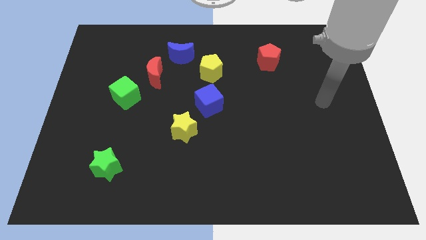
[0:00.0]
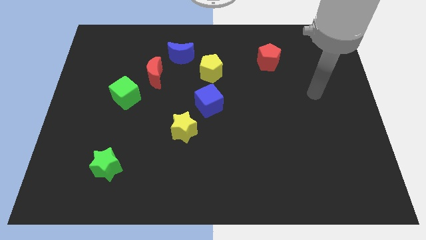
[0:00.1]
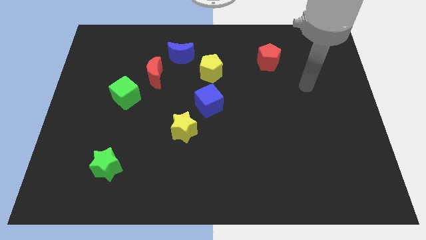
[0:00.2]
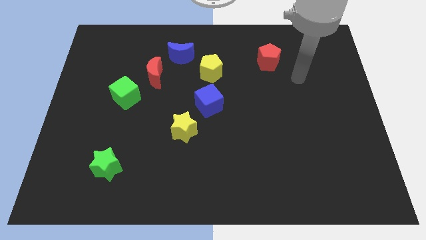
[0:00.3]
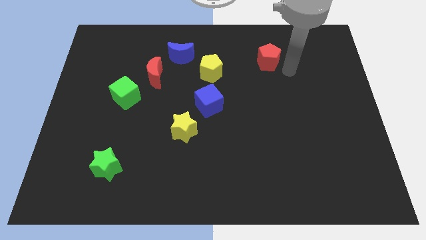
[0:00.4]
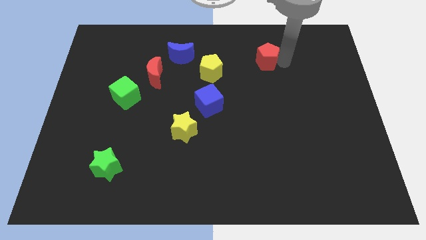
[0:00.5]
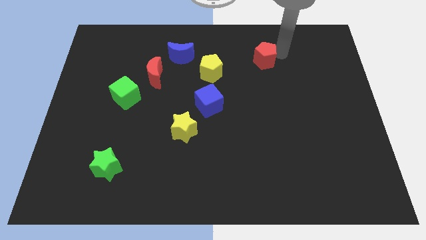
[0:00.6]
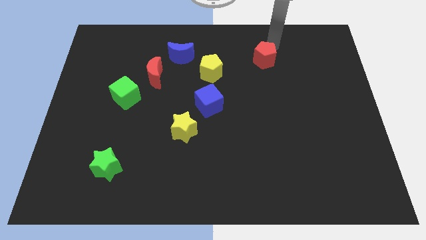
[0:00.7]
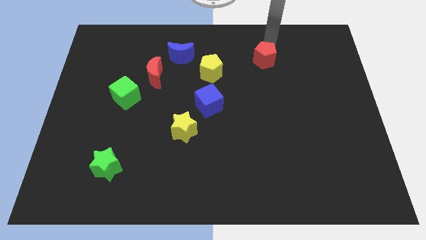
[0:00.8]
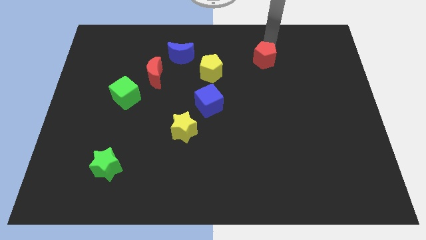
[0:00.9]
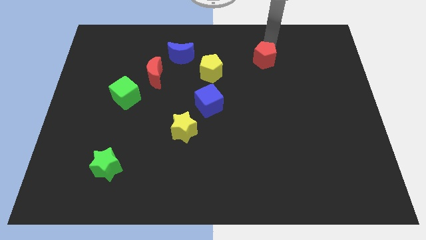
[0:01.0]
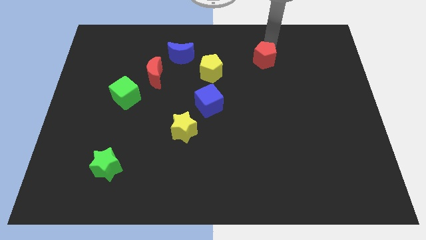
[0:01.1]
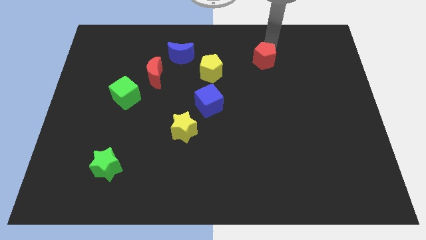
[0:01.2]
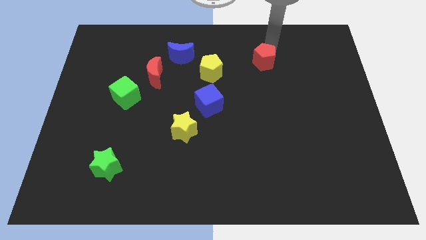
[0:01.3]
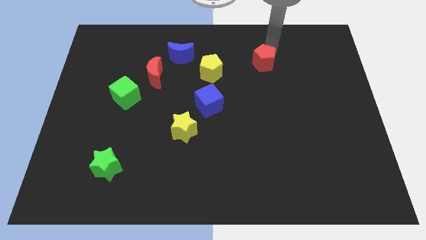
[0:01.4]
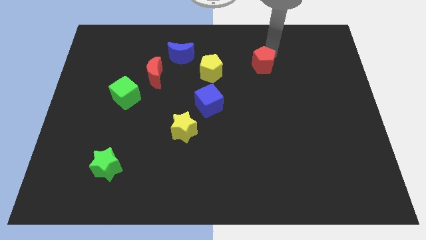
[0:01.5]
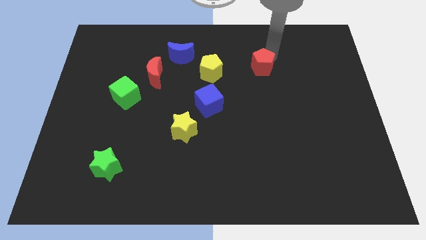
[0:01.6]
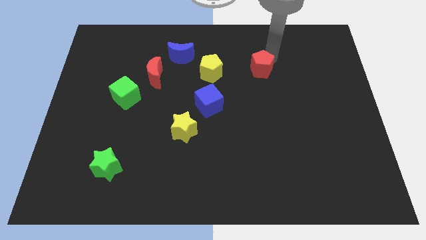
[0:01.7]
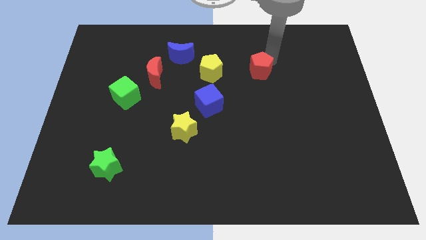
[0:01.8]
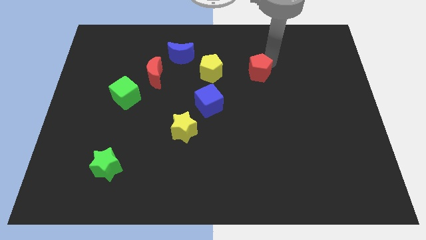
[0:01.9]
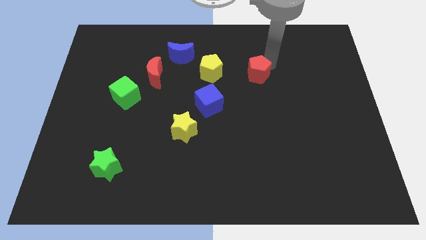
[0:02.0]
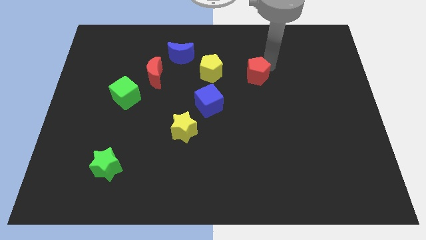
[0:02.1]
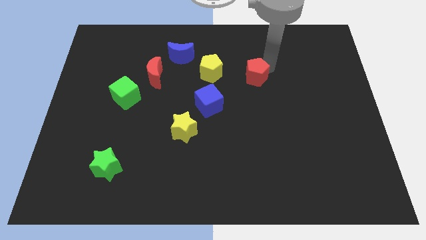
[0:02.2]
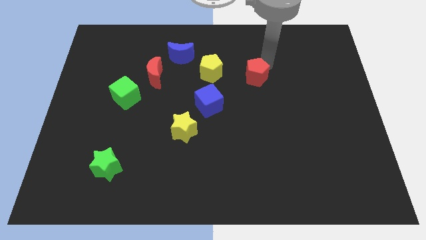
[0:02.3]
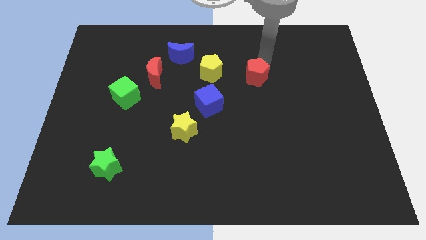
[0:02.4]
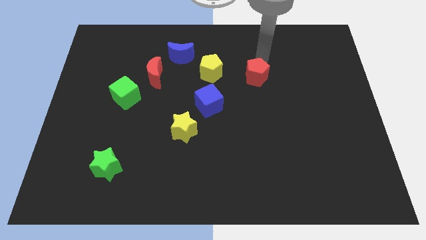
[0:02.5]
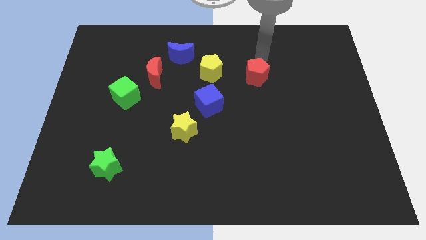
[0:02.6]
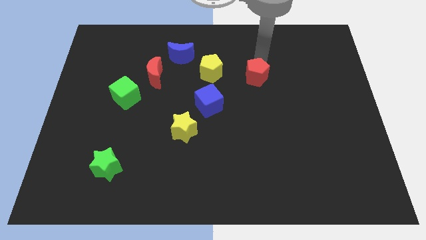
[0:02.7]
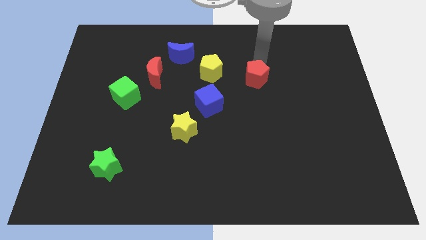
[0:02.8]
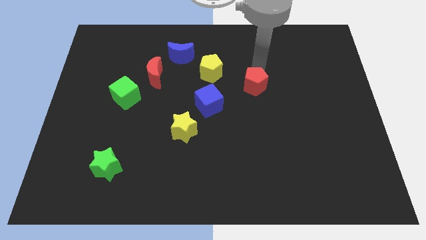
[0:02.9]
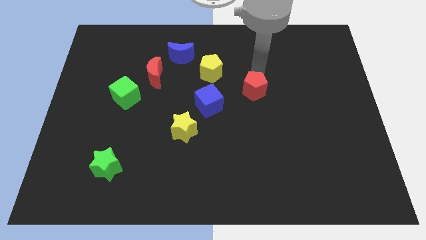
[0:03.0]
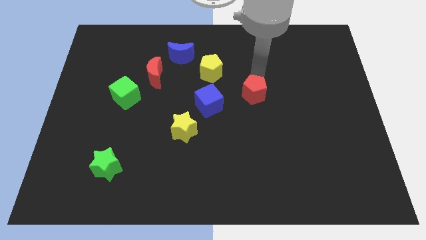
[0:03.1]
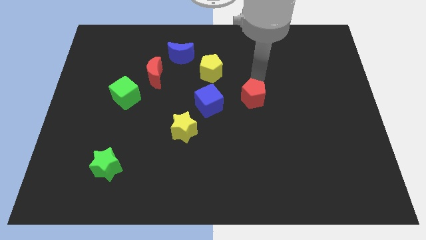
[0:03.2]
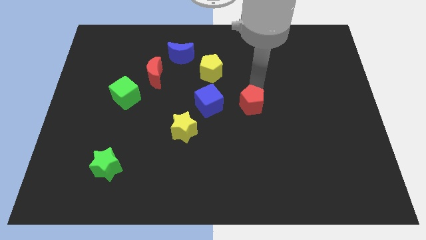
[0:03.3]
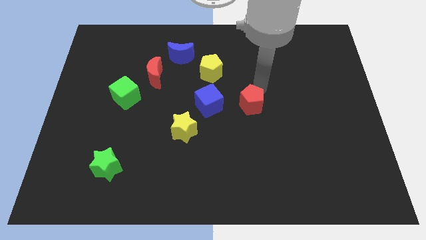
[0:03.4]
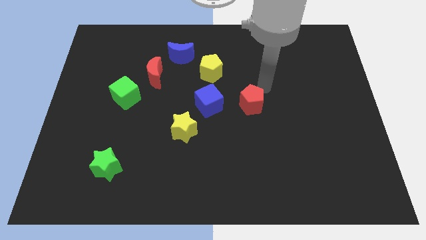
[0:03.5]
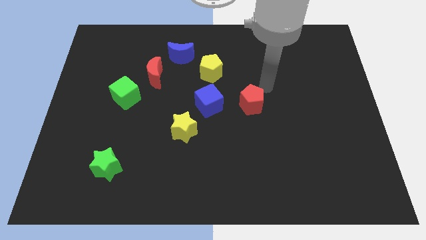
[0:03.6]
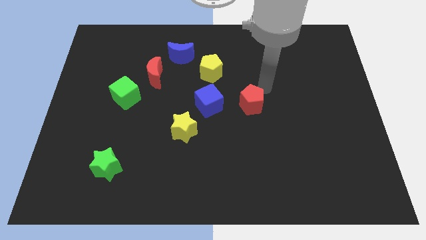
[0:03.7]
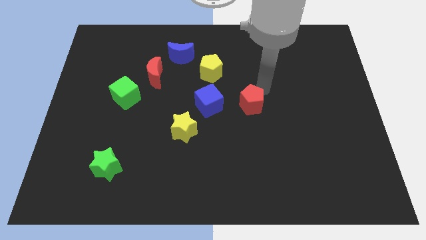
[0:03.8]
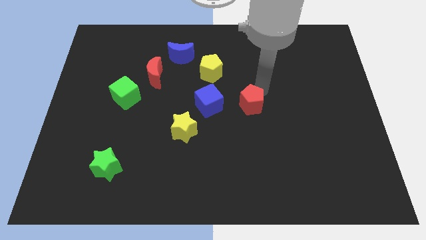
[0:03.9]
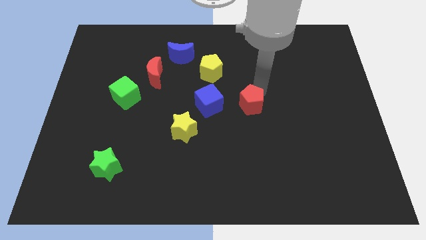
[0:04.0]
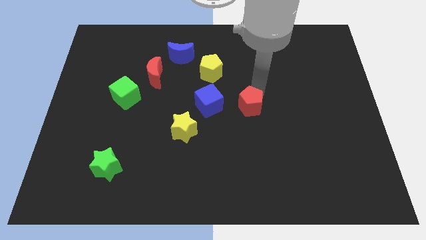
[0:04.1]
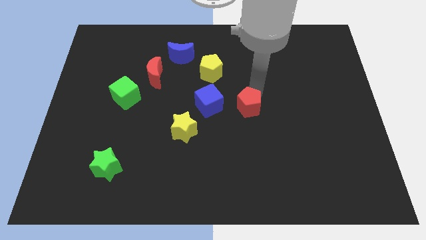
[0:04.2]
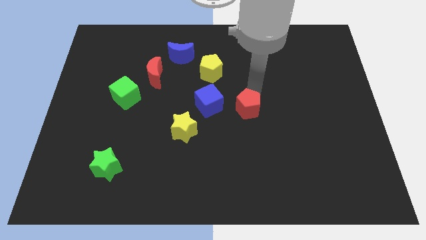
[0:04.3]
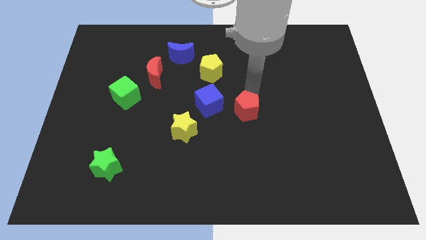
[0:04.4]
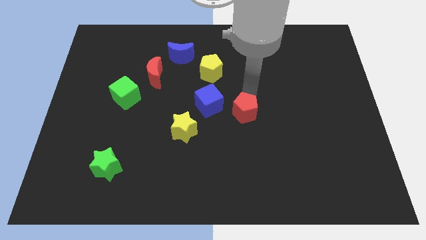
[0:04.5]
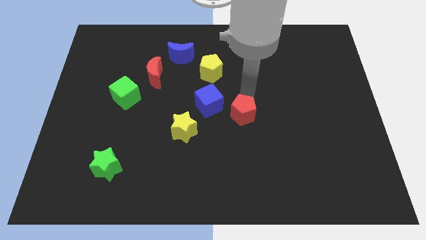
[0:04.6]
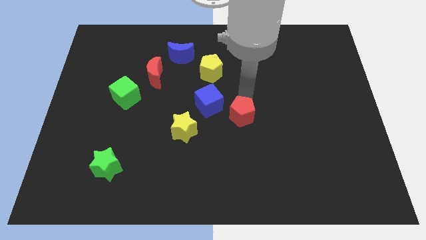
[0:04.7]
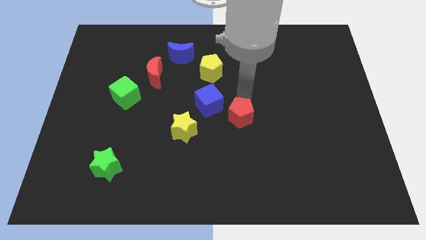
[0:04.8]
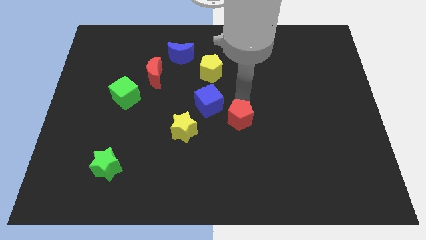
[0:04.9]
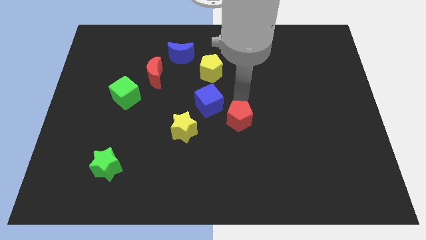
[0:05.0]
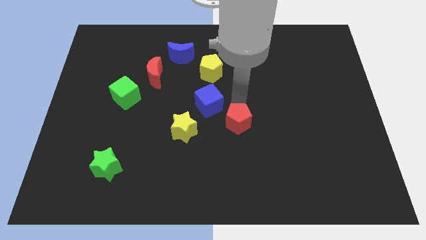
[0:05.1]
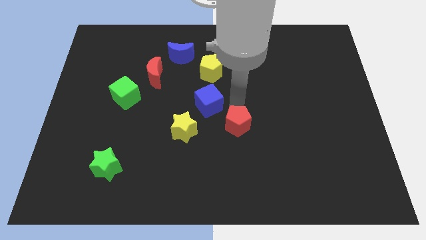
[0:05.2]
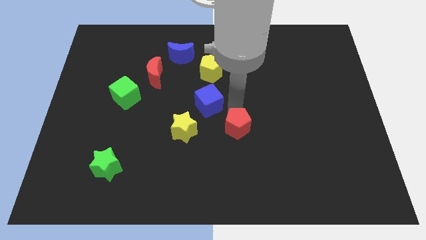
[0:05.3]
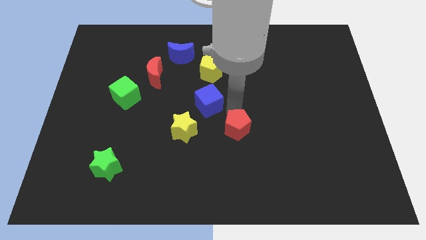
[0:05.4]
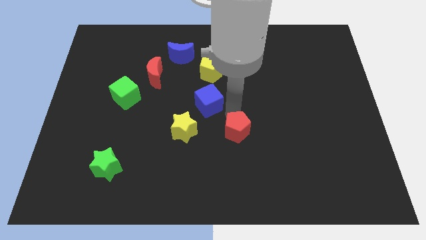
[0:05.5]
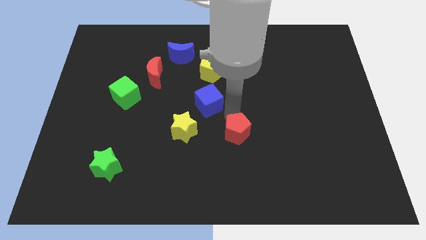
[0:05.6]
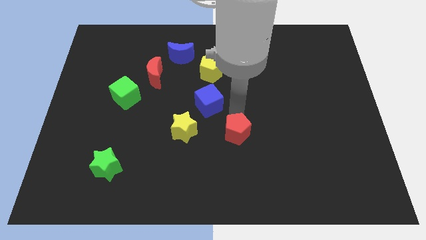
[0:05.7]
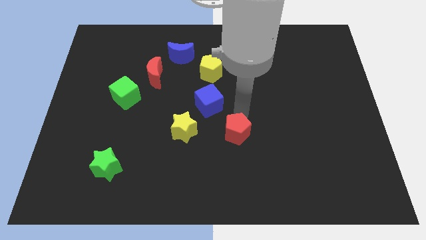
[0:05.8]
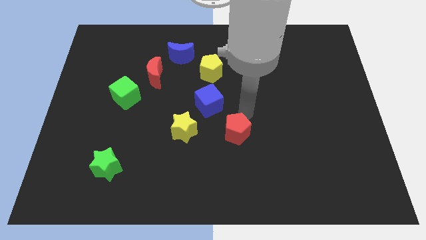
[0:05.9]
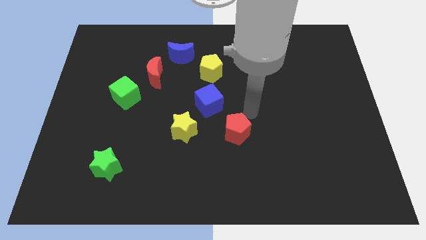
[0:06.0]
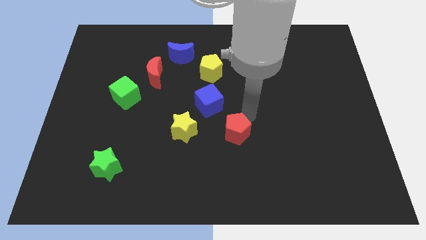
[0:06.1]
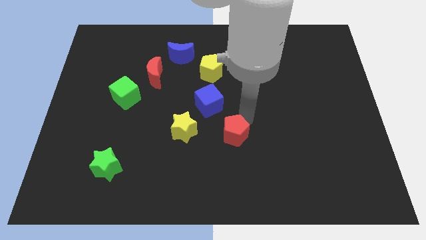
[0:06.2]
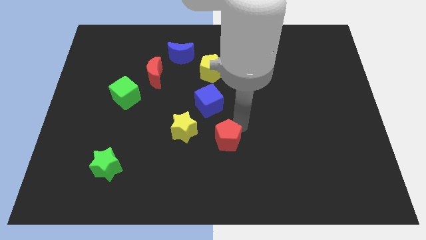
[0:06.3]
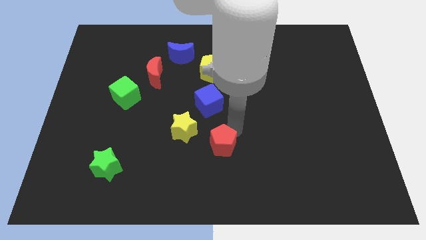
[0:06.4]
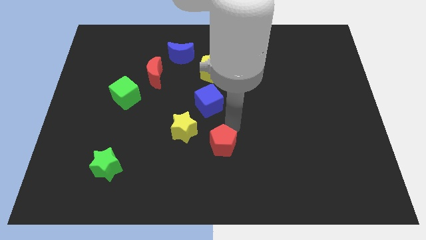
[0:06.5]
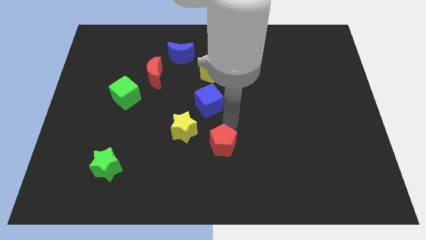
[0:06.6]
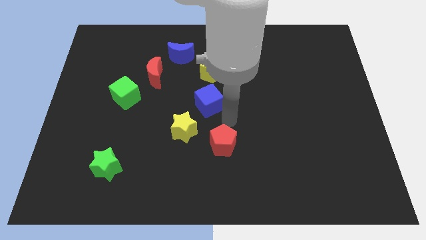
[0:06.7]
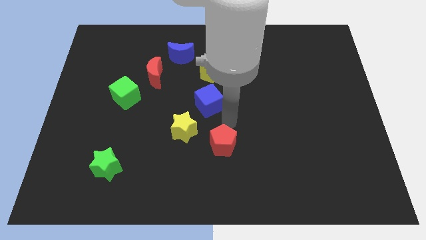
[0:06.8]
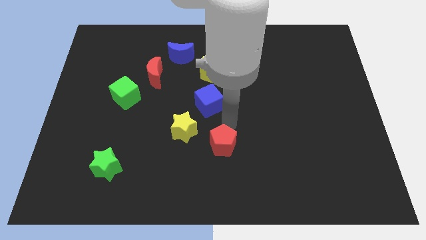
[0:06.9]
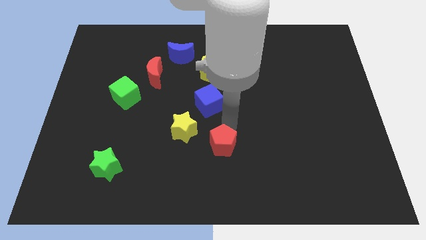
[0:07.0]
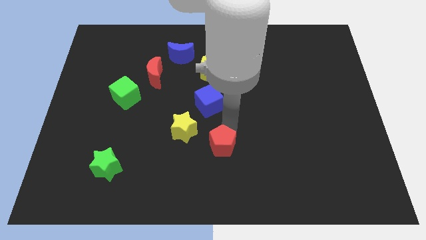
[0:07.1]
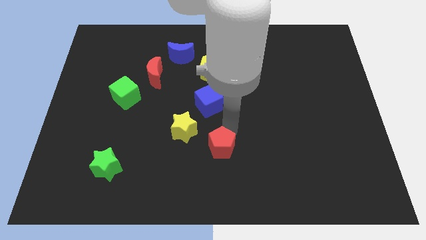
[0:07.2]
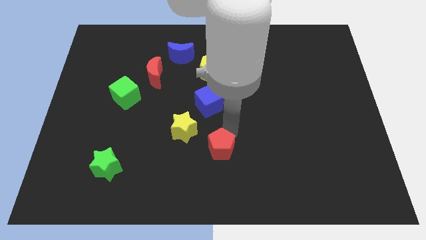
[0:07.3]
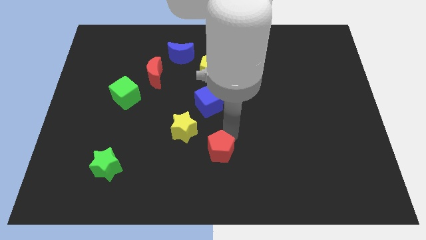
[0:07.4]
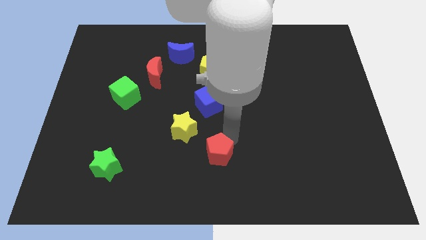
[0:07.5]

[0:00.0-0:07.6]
push the red pentagon to the bottom side
